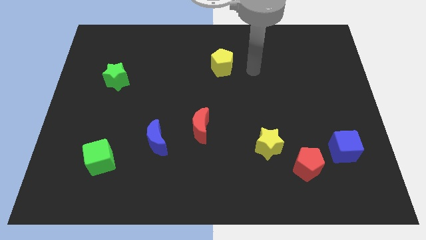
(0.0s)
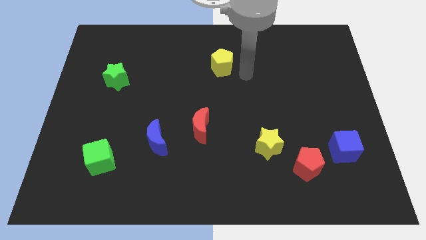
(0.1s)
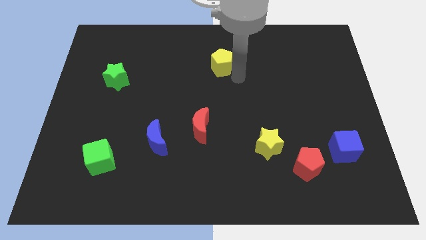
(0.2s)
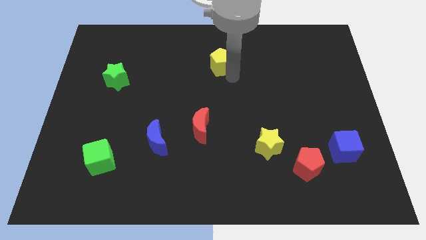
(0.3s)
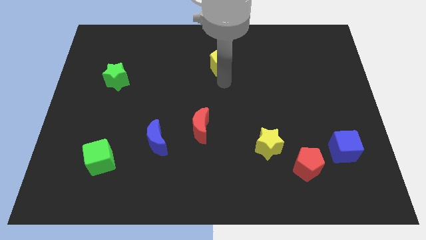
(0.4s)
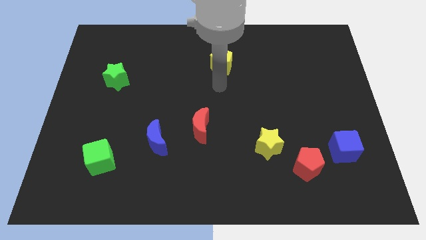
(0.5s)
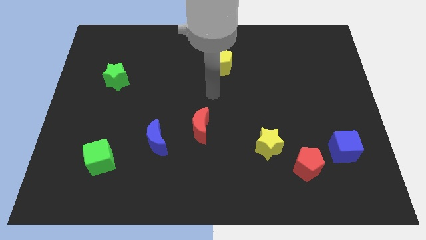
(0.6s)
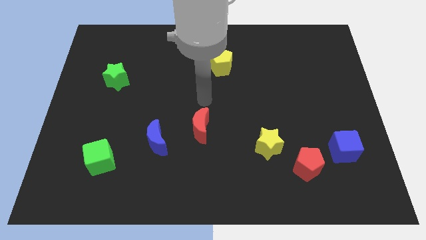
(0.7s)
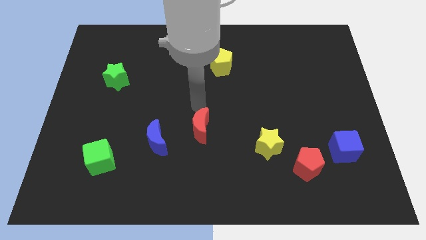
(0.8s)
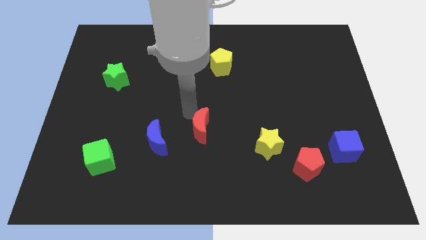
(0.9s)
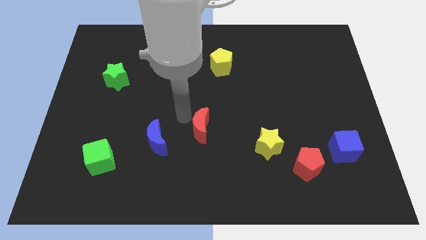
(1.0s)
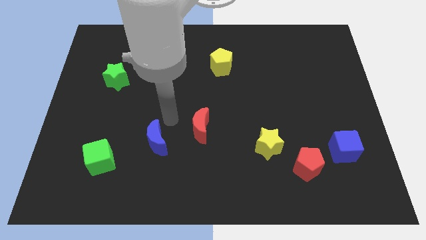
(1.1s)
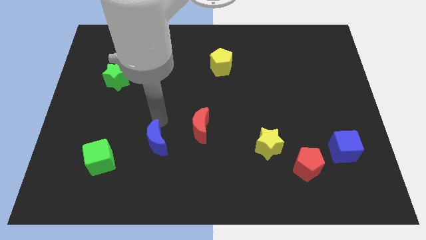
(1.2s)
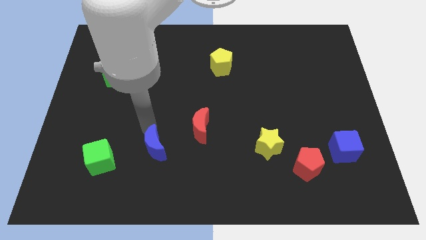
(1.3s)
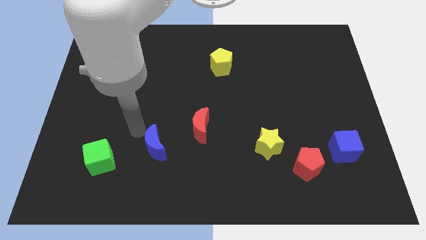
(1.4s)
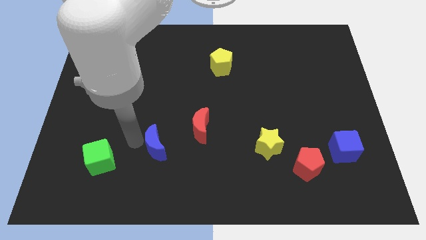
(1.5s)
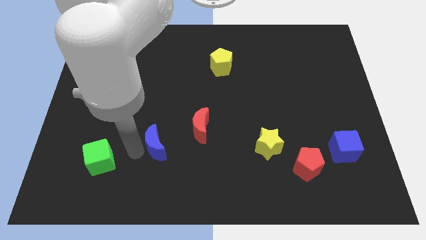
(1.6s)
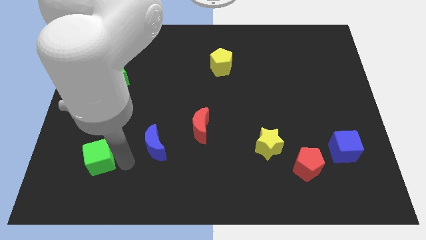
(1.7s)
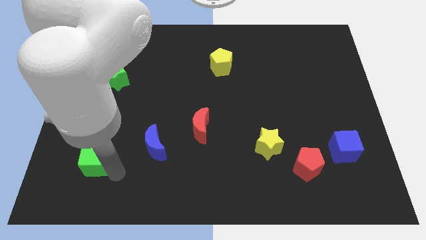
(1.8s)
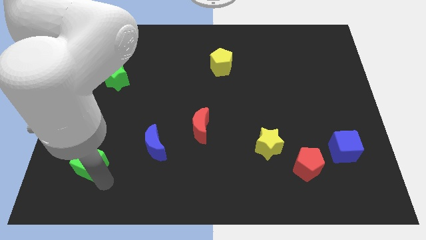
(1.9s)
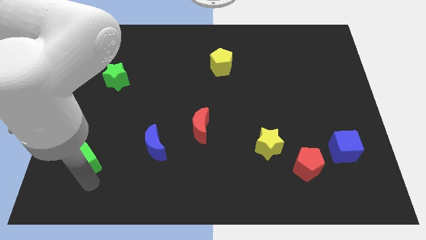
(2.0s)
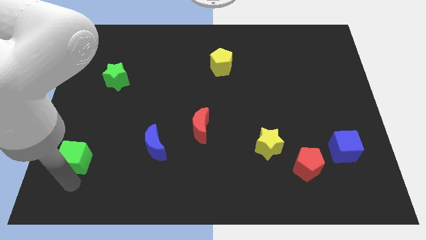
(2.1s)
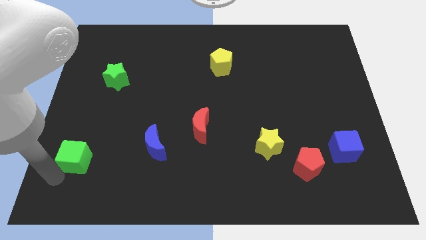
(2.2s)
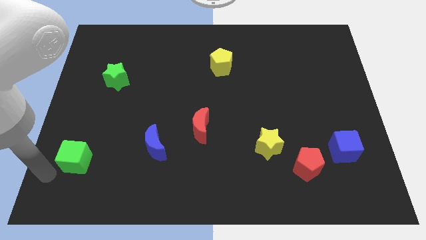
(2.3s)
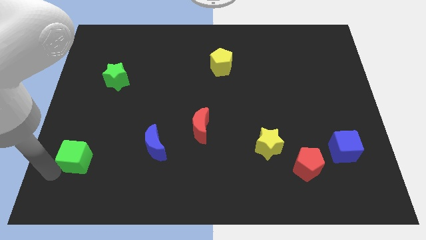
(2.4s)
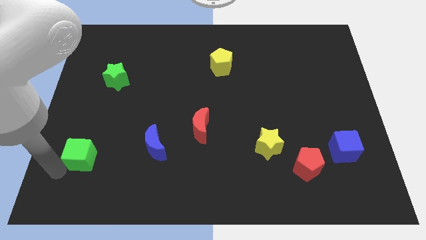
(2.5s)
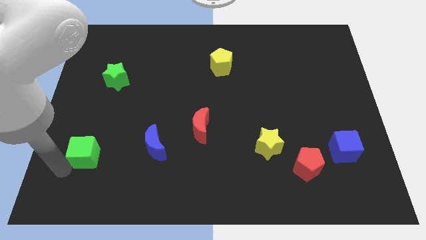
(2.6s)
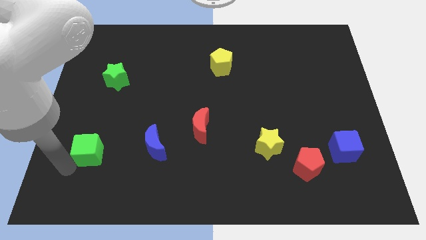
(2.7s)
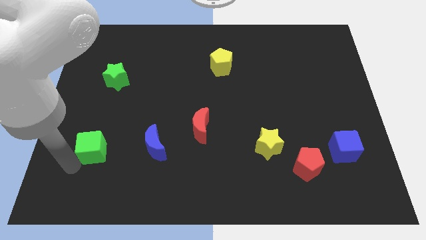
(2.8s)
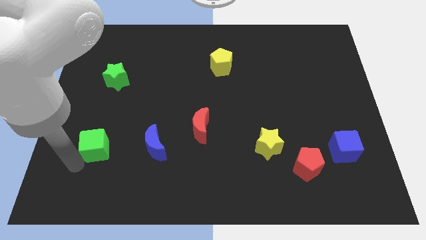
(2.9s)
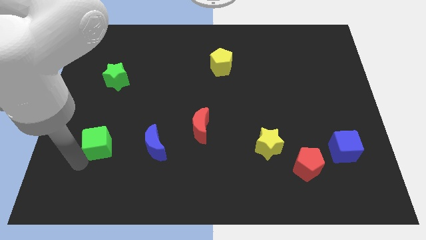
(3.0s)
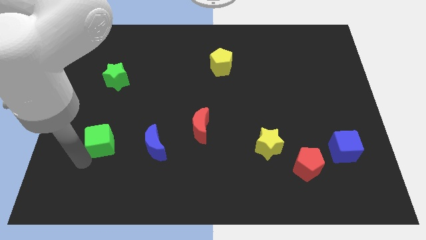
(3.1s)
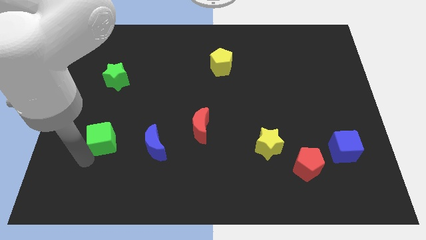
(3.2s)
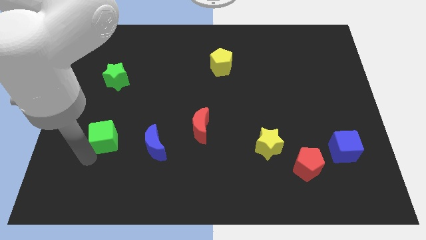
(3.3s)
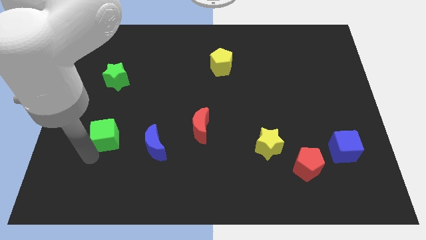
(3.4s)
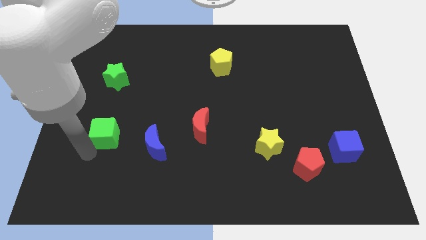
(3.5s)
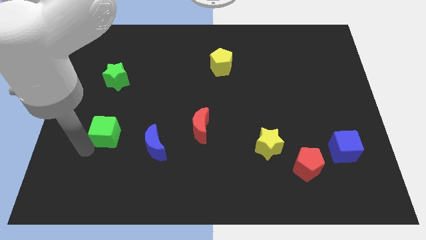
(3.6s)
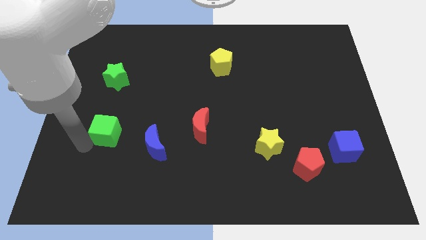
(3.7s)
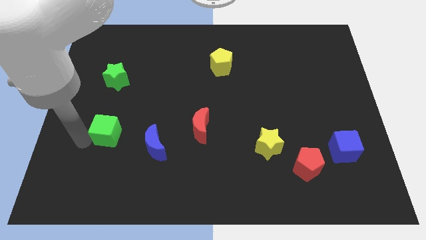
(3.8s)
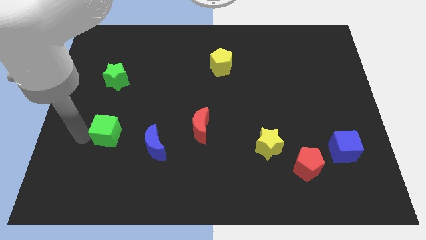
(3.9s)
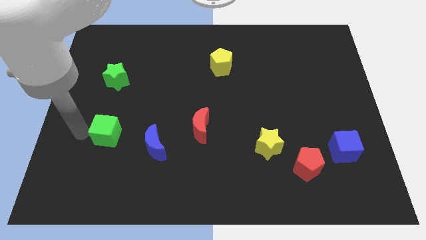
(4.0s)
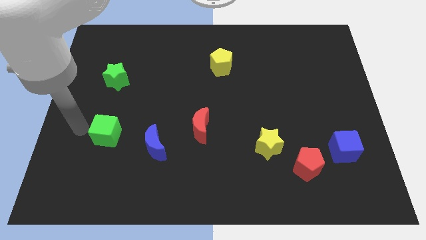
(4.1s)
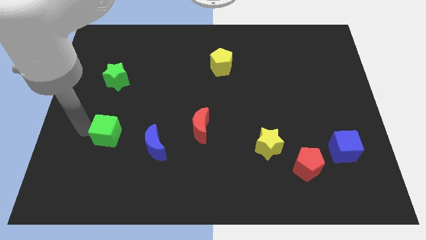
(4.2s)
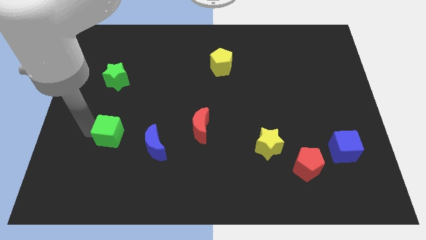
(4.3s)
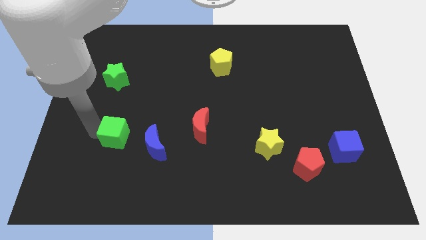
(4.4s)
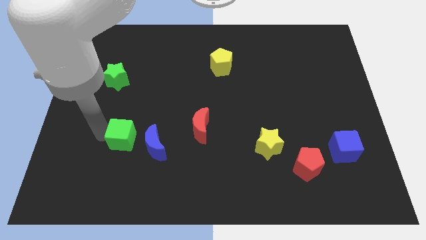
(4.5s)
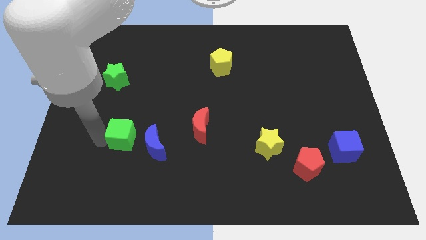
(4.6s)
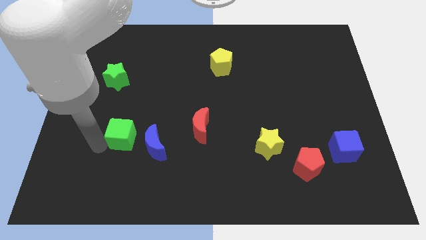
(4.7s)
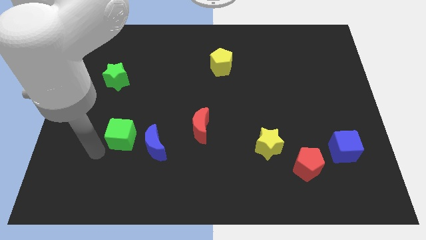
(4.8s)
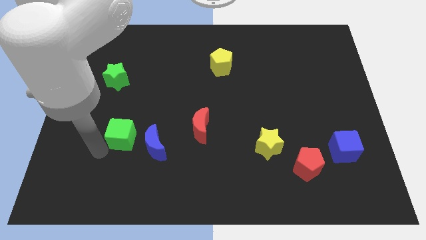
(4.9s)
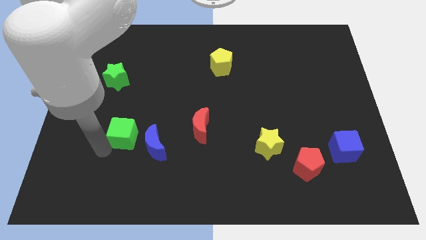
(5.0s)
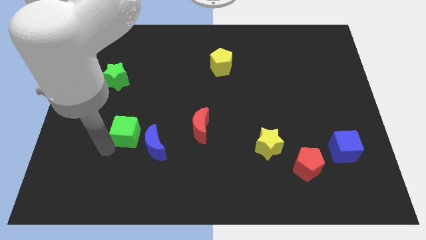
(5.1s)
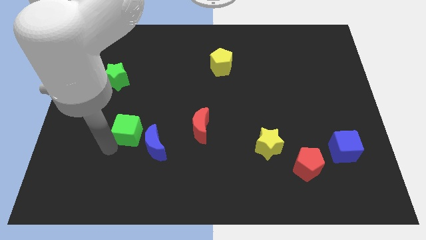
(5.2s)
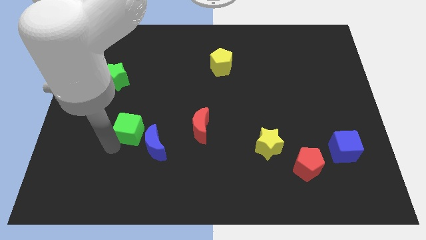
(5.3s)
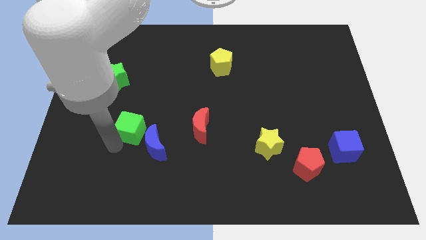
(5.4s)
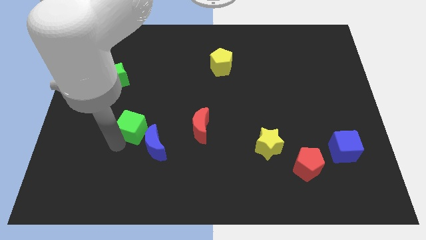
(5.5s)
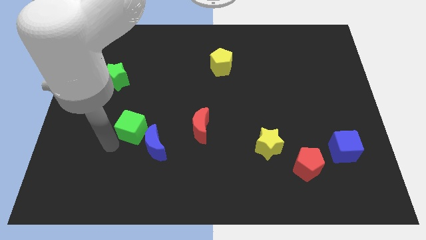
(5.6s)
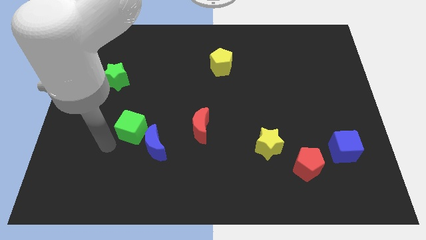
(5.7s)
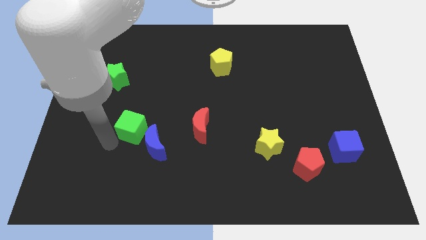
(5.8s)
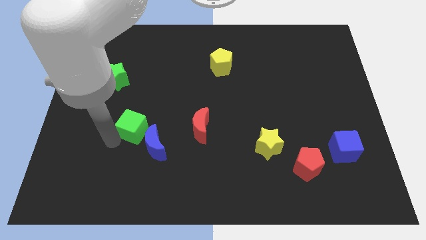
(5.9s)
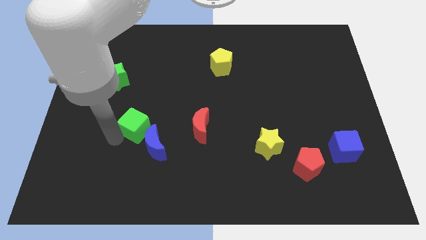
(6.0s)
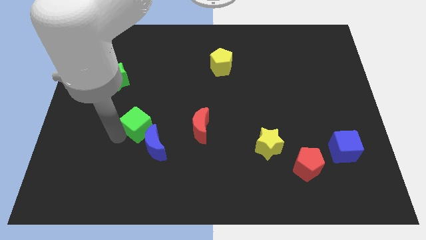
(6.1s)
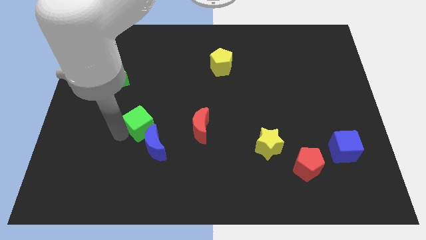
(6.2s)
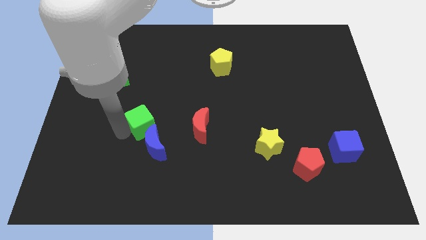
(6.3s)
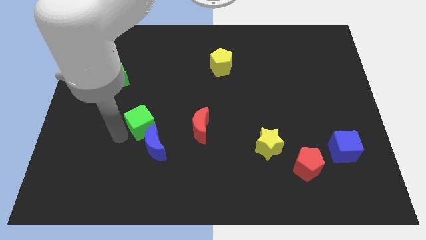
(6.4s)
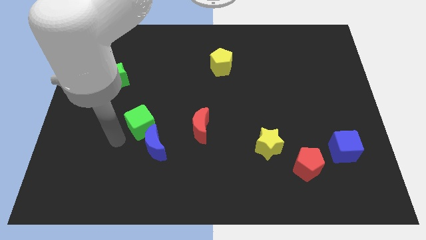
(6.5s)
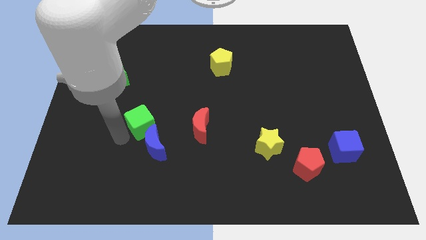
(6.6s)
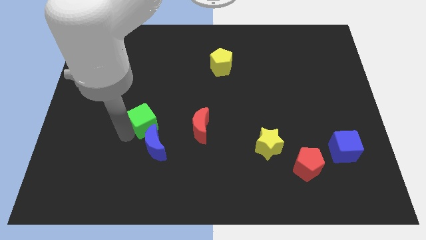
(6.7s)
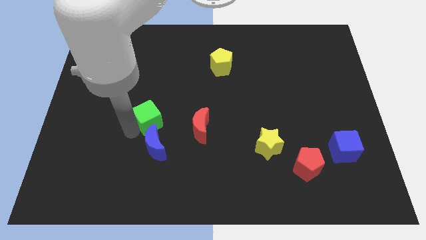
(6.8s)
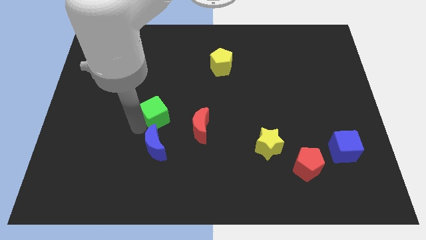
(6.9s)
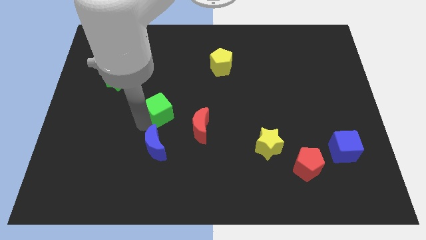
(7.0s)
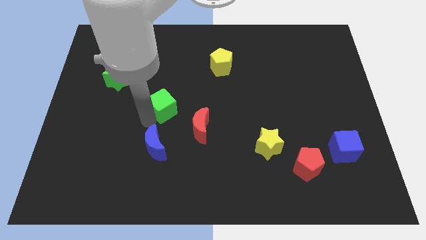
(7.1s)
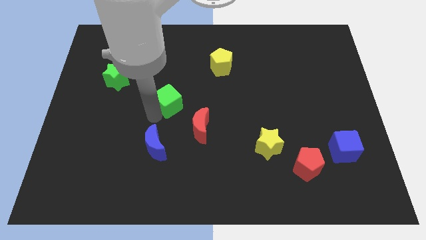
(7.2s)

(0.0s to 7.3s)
slide the green cube upwards and right diagonally

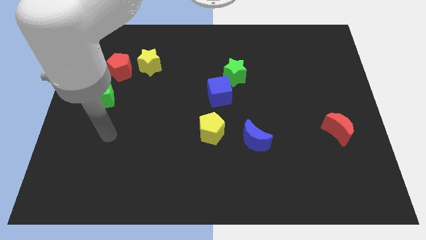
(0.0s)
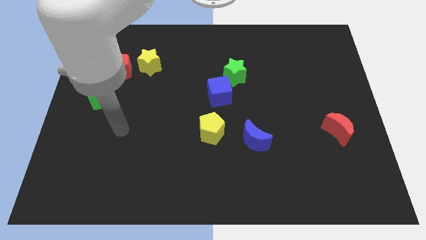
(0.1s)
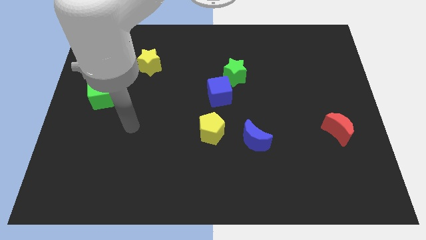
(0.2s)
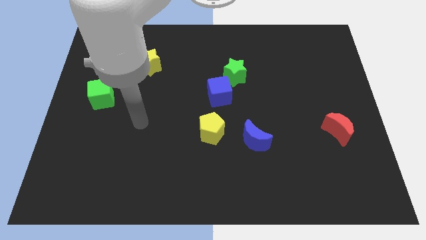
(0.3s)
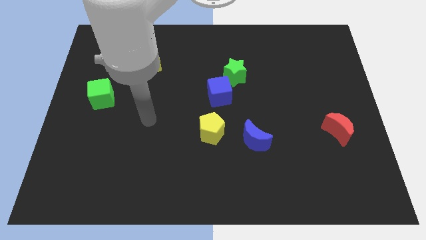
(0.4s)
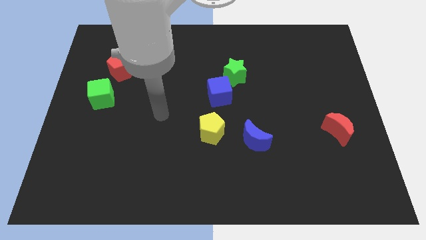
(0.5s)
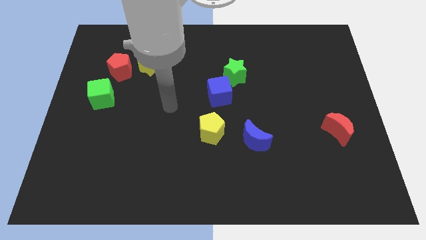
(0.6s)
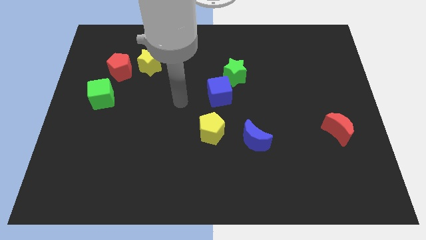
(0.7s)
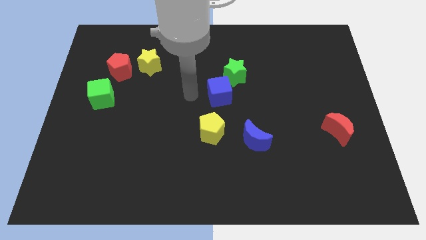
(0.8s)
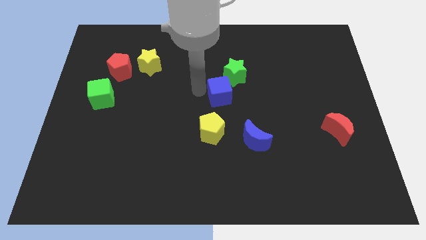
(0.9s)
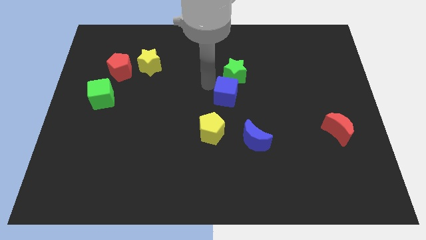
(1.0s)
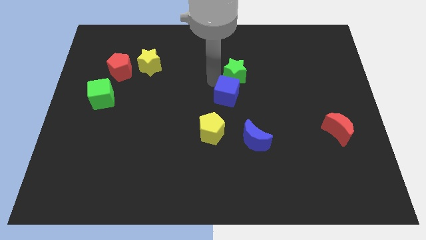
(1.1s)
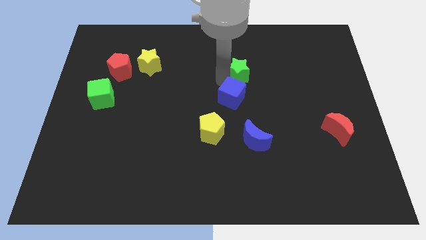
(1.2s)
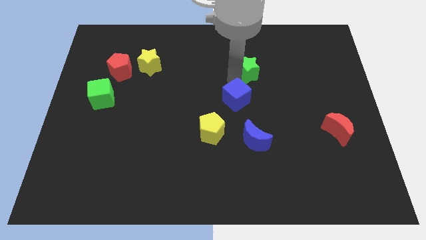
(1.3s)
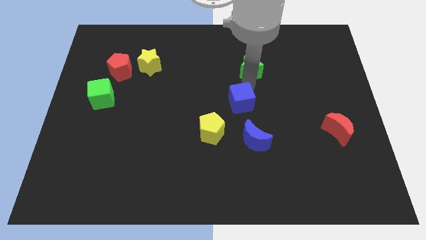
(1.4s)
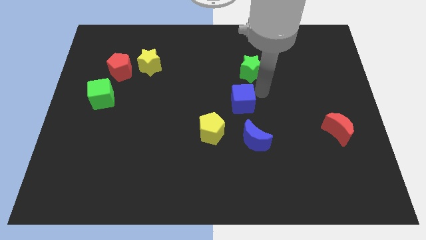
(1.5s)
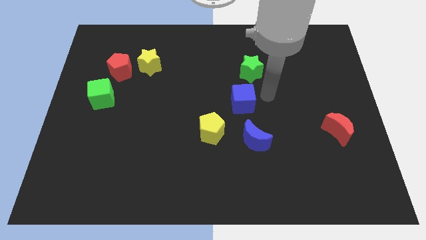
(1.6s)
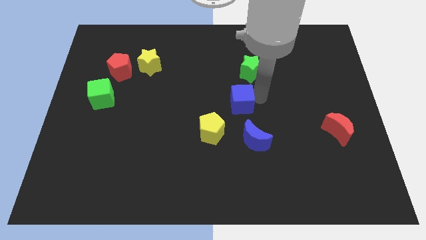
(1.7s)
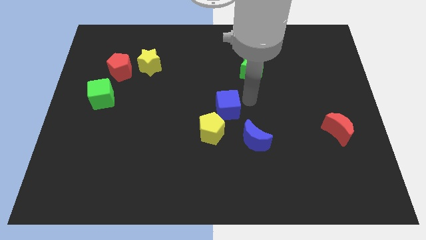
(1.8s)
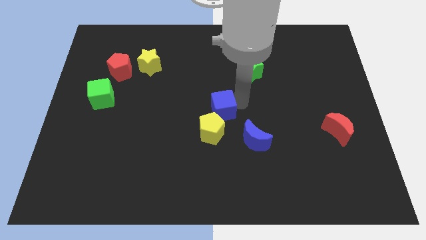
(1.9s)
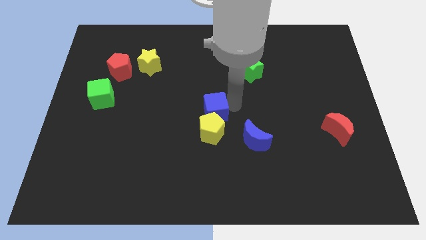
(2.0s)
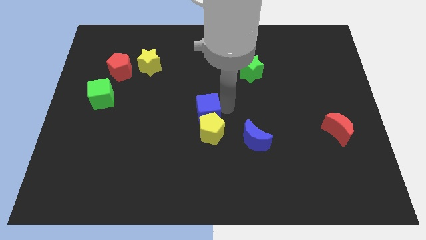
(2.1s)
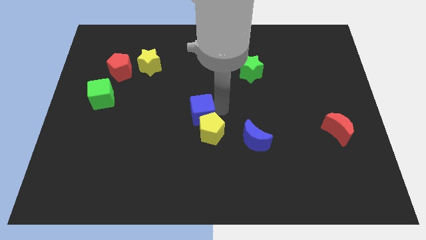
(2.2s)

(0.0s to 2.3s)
slightly move the blue cube diagonally downwards and to the left
